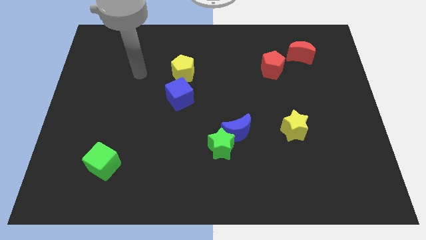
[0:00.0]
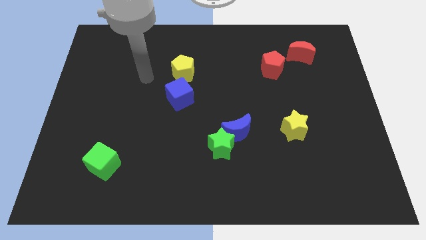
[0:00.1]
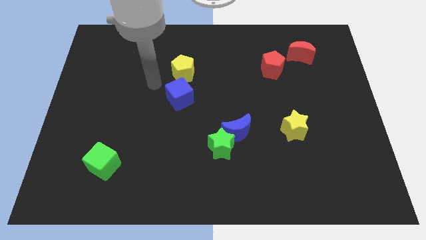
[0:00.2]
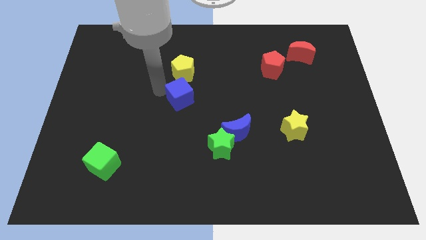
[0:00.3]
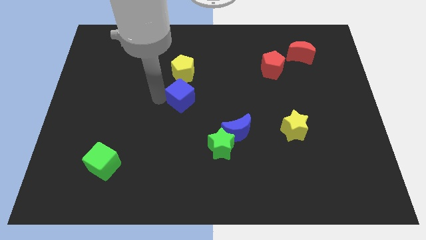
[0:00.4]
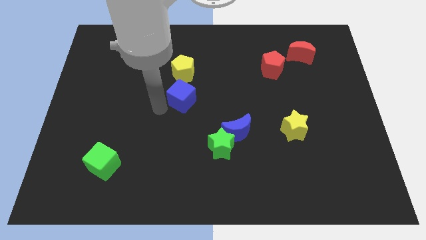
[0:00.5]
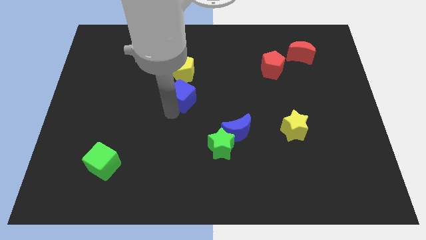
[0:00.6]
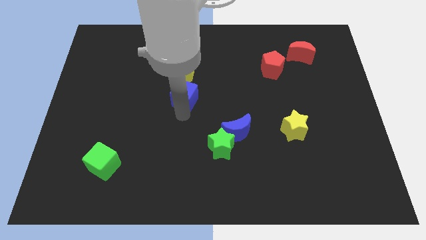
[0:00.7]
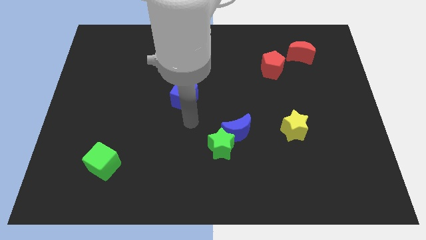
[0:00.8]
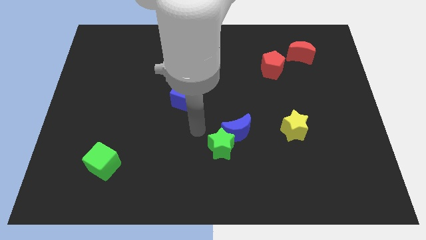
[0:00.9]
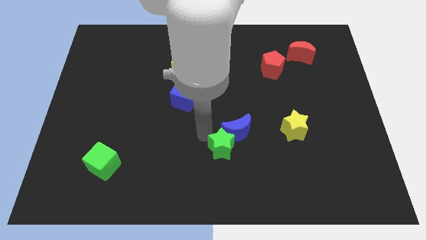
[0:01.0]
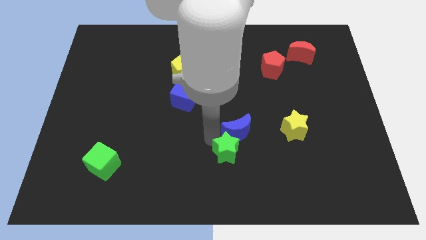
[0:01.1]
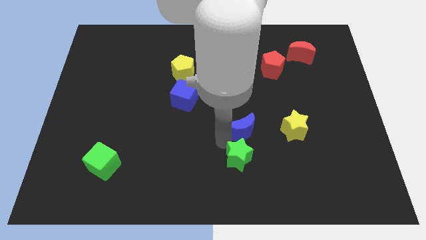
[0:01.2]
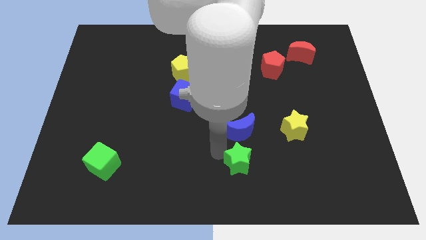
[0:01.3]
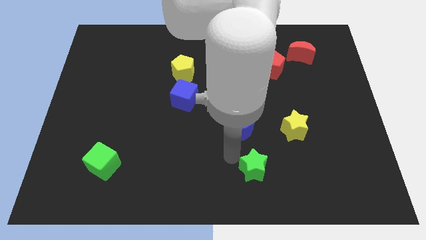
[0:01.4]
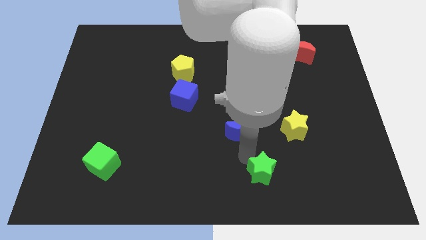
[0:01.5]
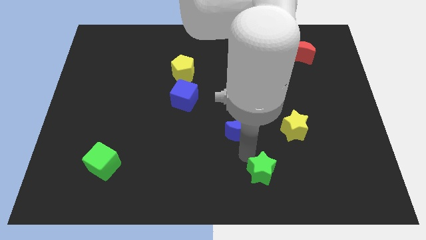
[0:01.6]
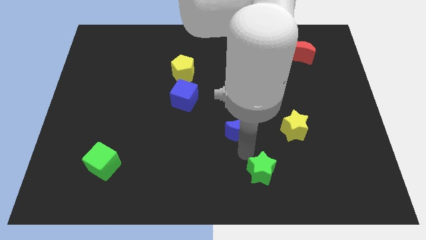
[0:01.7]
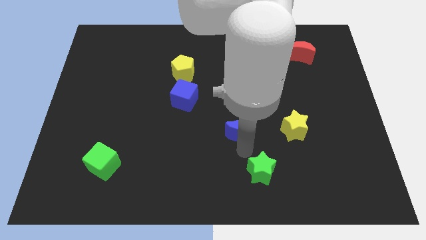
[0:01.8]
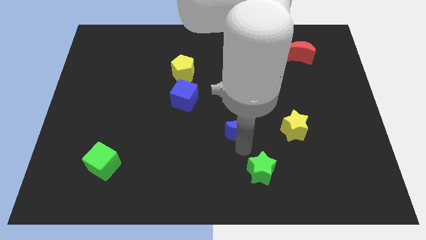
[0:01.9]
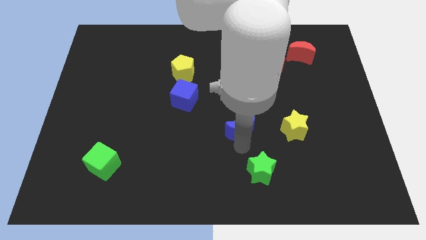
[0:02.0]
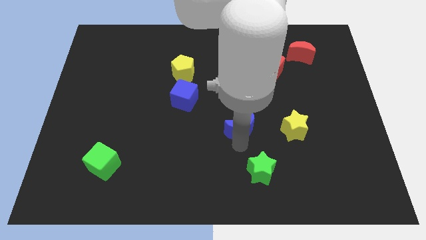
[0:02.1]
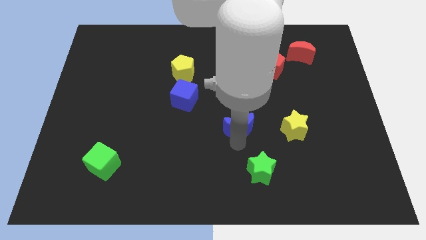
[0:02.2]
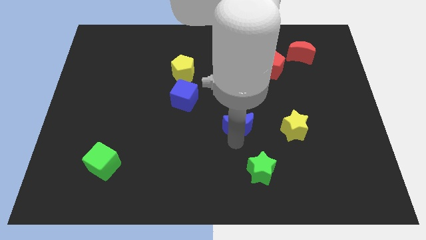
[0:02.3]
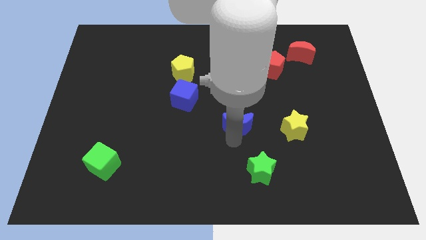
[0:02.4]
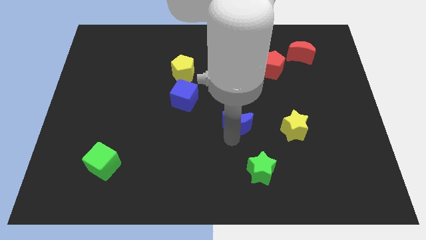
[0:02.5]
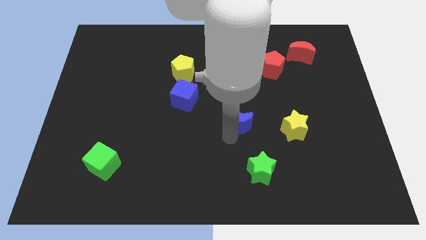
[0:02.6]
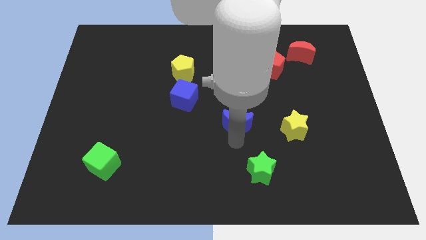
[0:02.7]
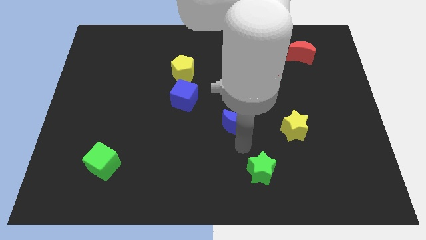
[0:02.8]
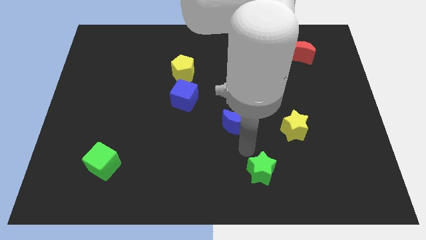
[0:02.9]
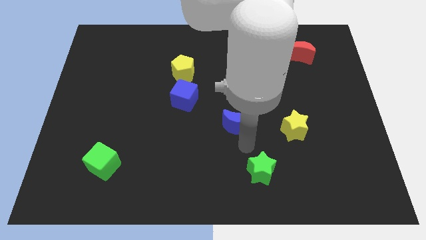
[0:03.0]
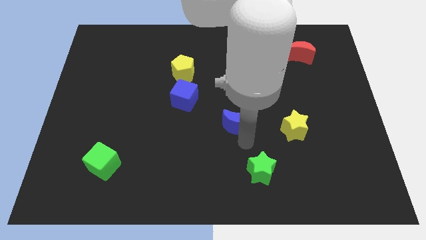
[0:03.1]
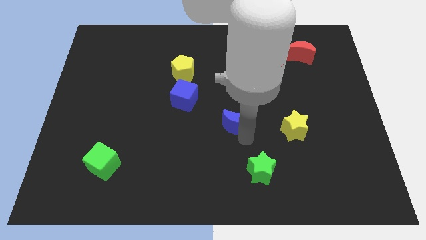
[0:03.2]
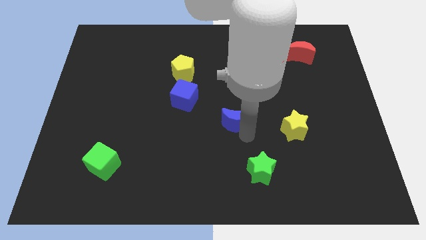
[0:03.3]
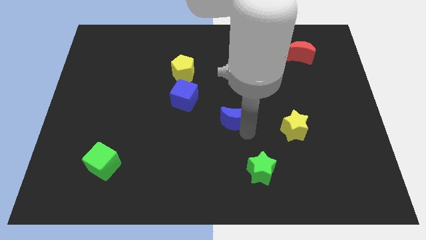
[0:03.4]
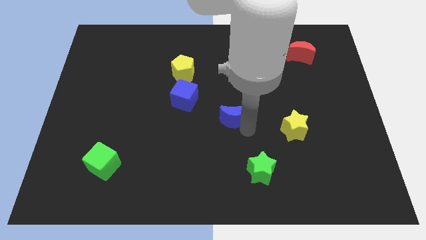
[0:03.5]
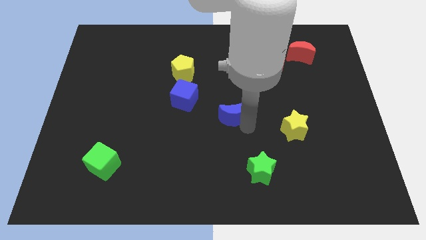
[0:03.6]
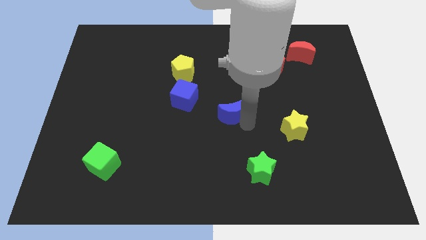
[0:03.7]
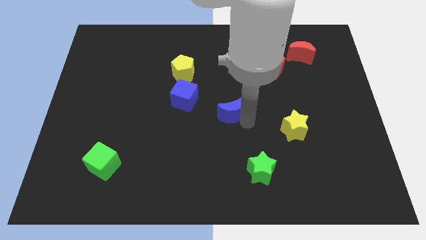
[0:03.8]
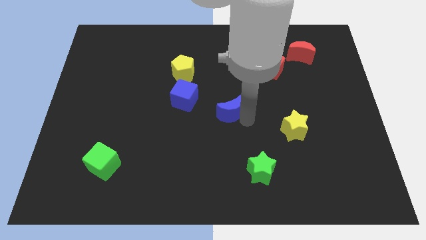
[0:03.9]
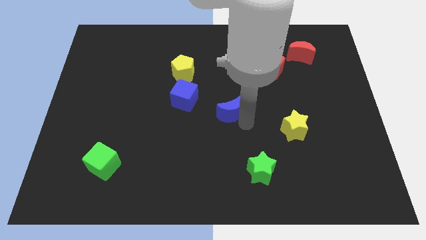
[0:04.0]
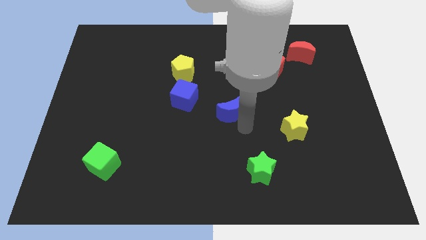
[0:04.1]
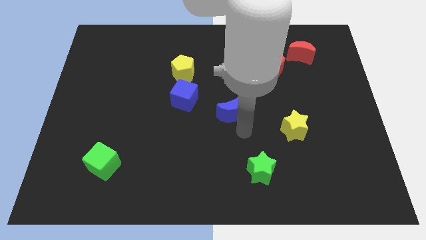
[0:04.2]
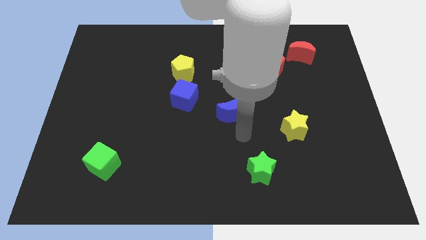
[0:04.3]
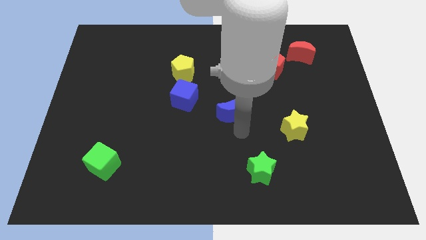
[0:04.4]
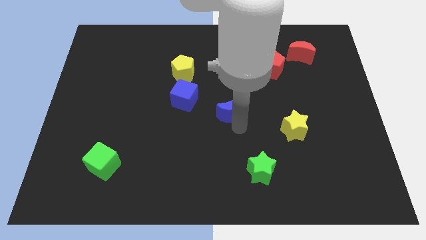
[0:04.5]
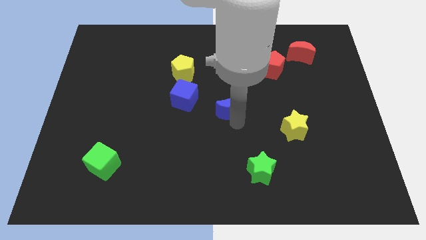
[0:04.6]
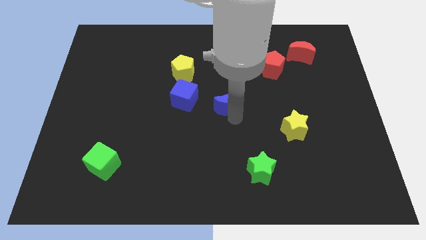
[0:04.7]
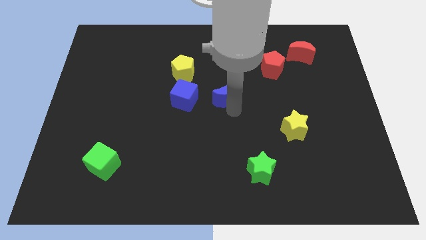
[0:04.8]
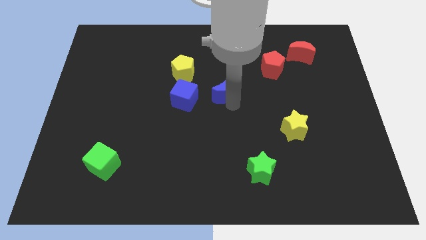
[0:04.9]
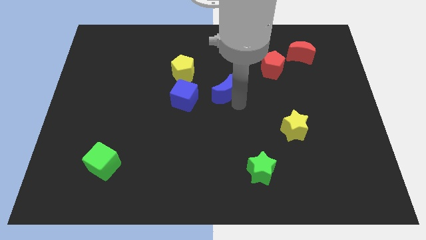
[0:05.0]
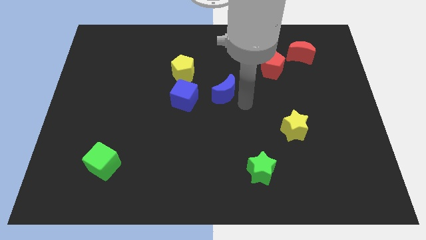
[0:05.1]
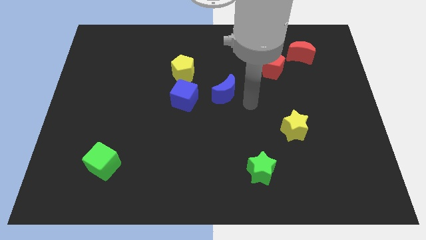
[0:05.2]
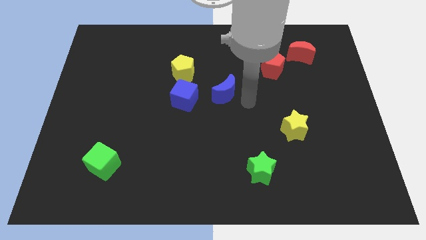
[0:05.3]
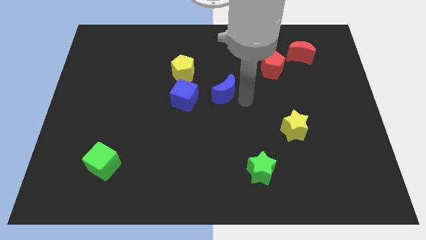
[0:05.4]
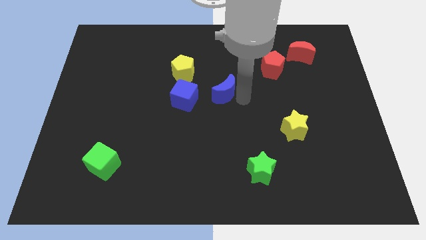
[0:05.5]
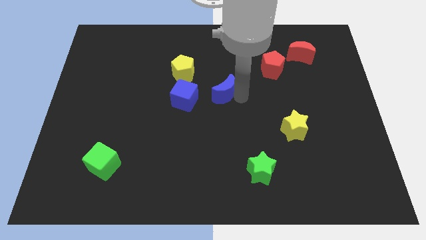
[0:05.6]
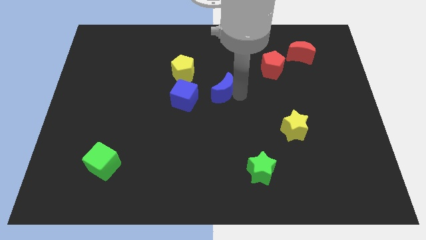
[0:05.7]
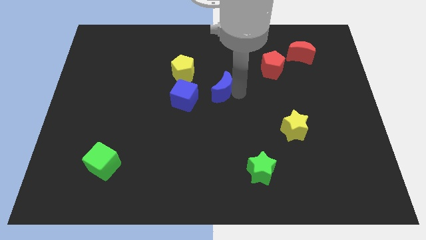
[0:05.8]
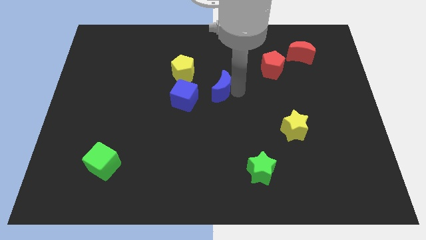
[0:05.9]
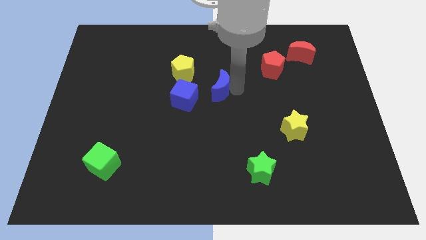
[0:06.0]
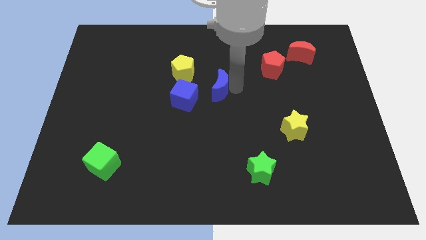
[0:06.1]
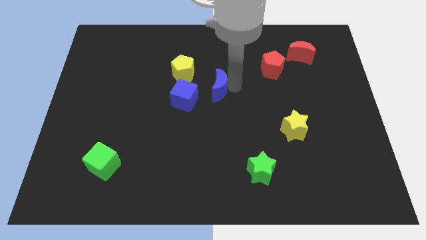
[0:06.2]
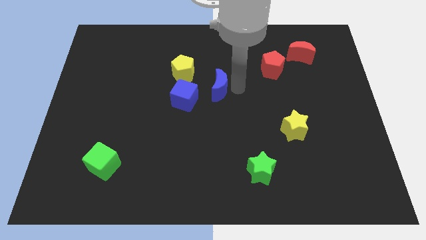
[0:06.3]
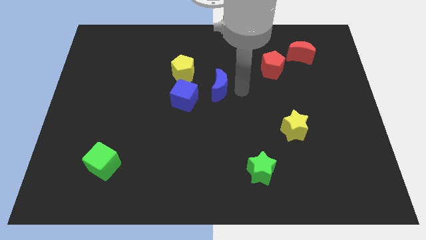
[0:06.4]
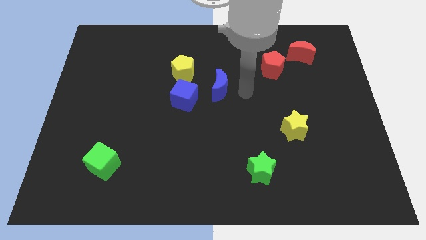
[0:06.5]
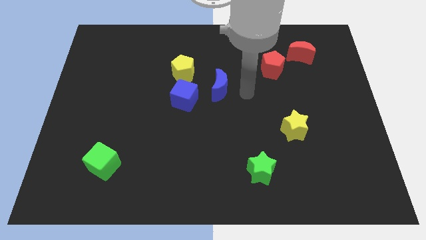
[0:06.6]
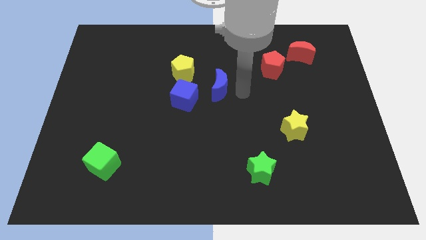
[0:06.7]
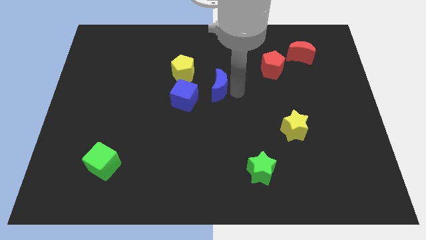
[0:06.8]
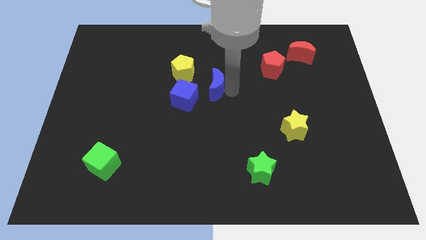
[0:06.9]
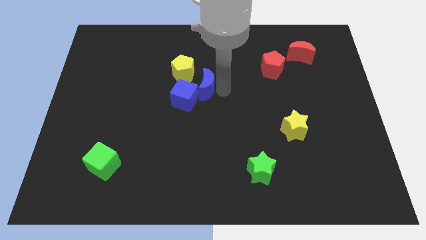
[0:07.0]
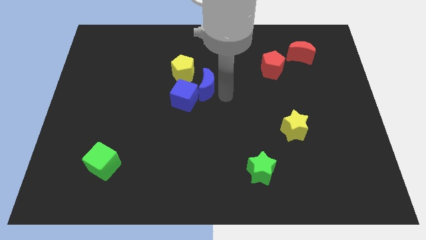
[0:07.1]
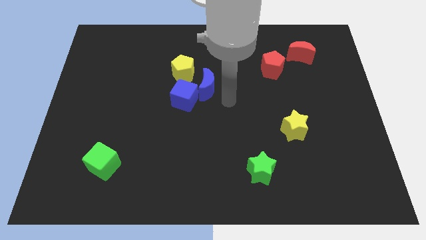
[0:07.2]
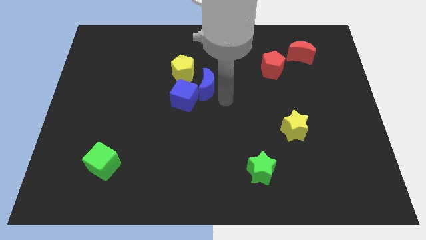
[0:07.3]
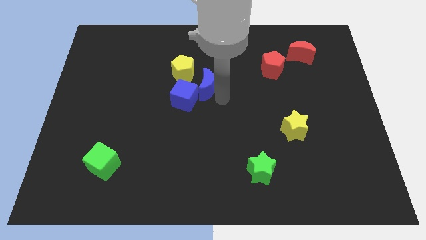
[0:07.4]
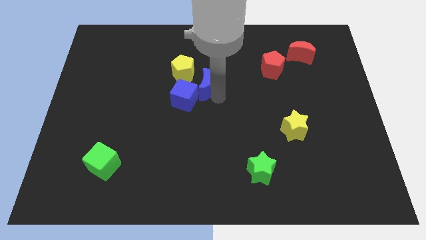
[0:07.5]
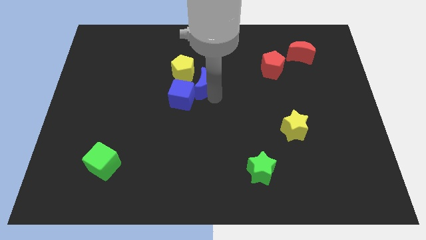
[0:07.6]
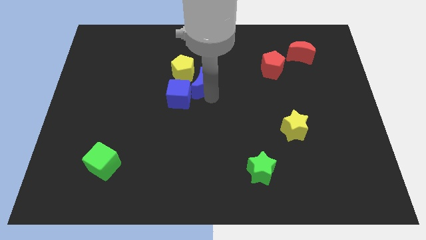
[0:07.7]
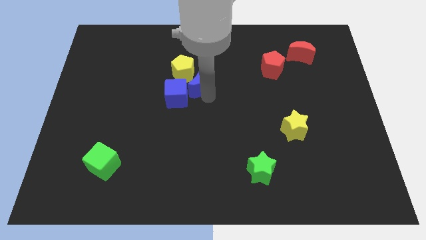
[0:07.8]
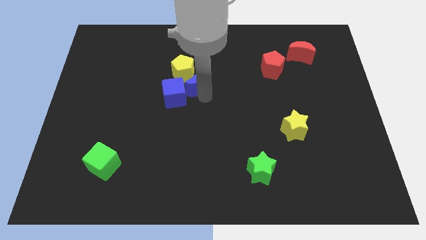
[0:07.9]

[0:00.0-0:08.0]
move the blue moon next to the yellow pentagon
